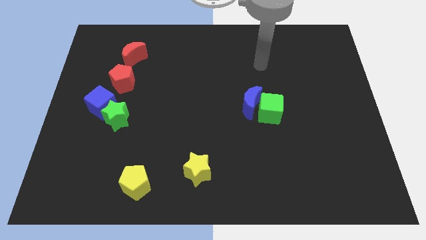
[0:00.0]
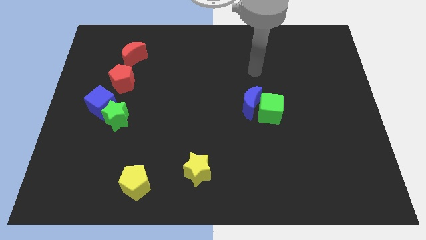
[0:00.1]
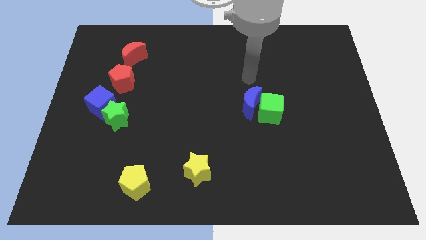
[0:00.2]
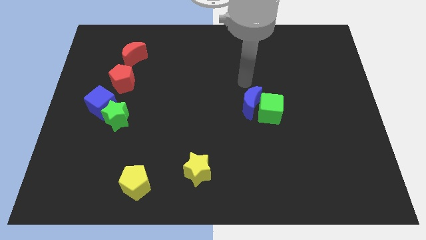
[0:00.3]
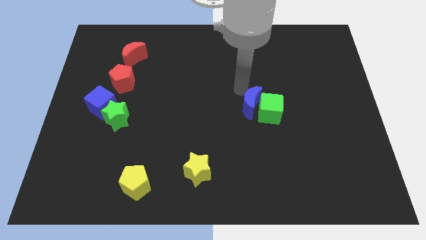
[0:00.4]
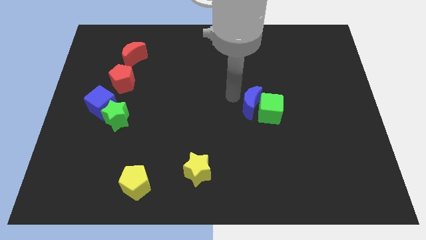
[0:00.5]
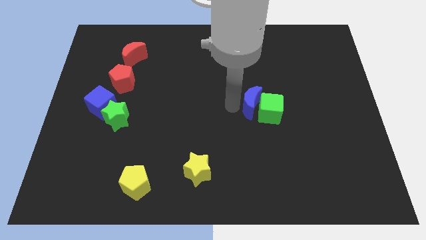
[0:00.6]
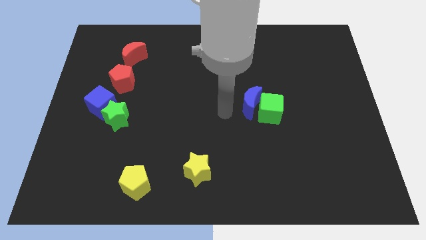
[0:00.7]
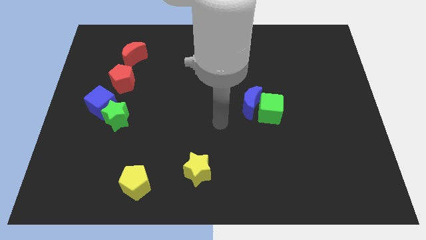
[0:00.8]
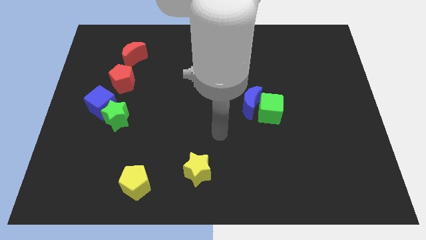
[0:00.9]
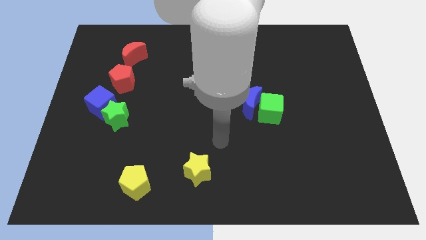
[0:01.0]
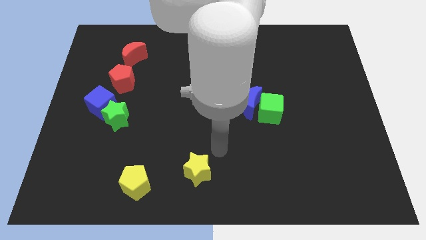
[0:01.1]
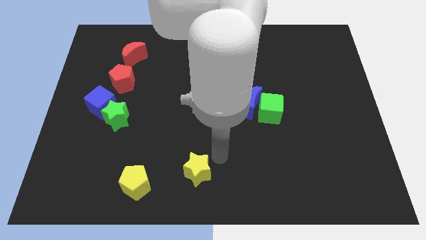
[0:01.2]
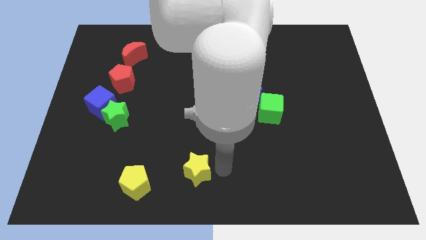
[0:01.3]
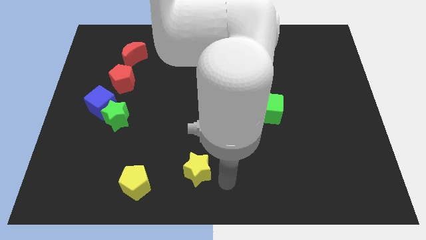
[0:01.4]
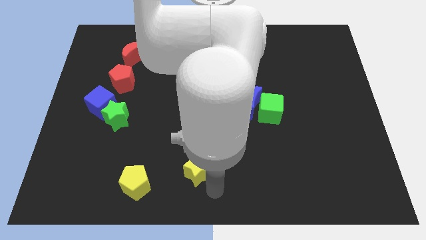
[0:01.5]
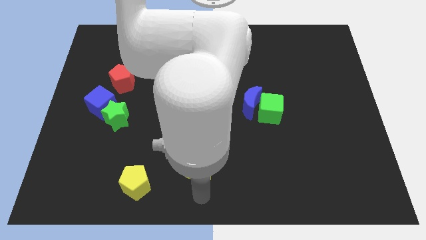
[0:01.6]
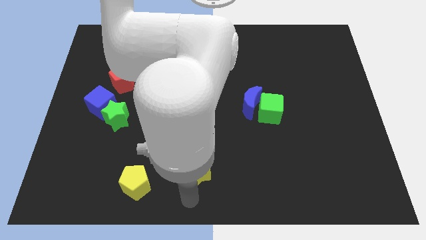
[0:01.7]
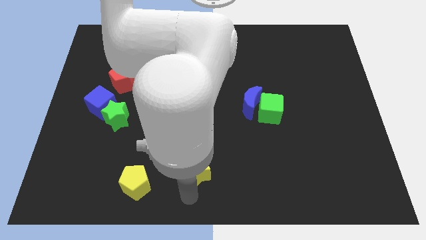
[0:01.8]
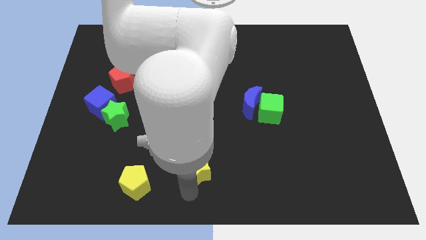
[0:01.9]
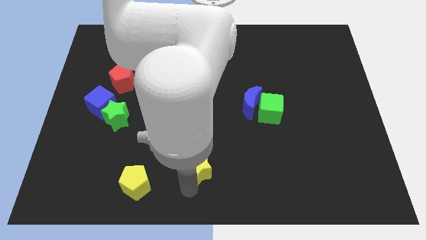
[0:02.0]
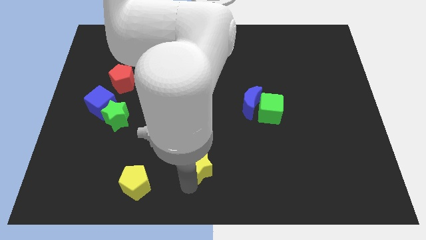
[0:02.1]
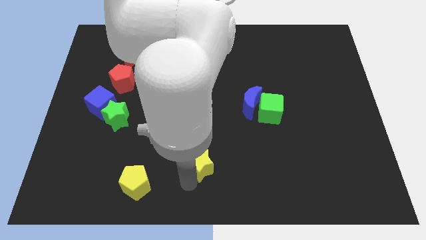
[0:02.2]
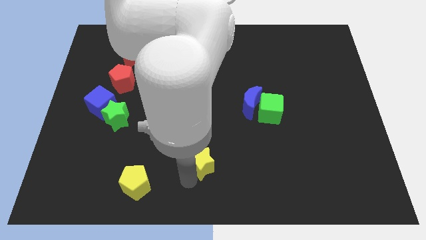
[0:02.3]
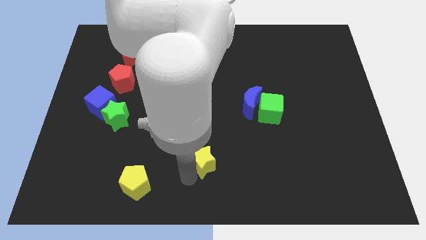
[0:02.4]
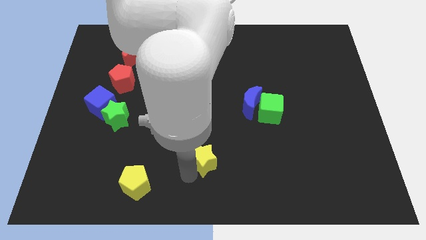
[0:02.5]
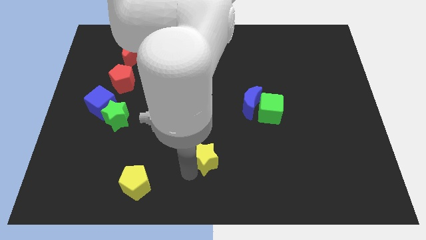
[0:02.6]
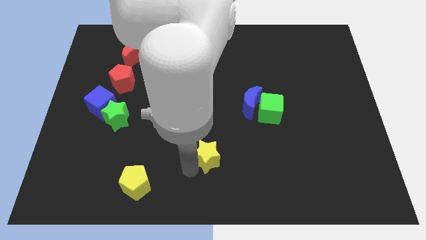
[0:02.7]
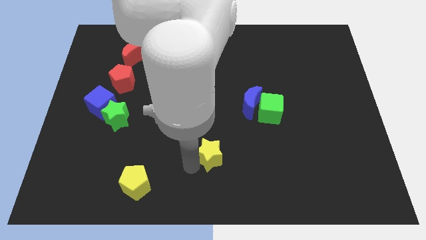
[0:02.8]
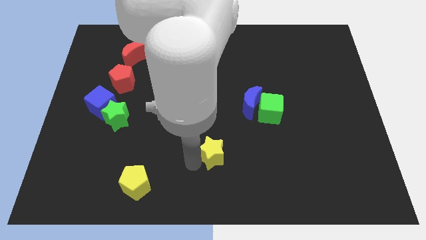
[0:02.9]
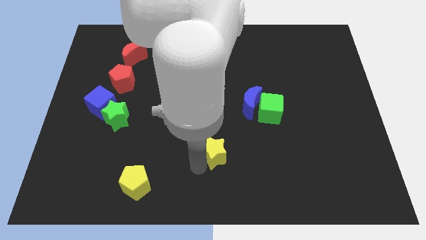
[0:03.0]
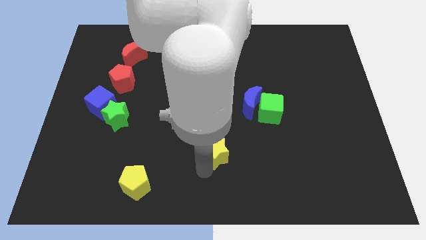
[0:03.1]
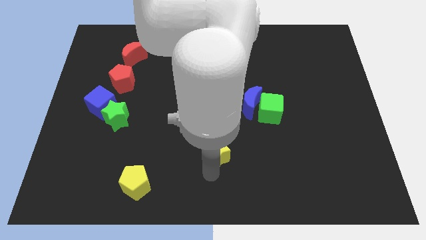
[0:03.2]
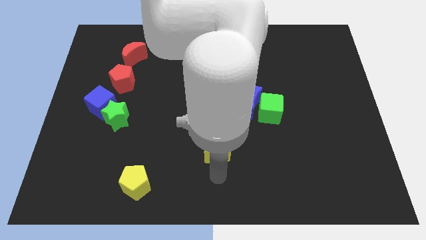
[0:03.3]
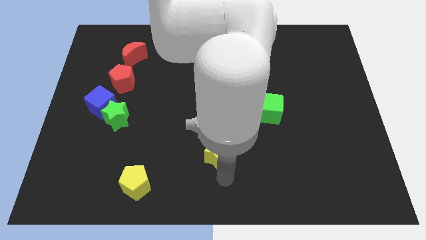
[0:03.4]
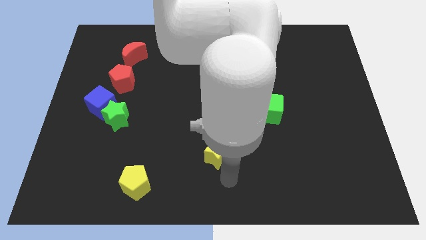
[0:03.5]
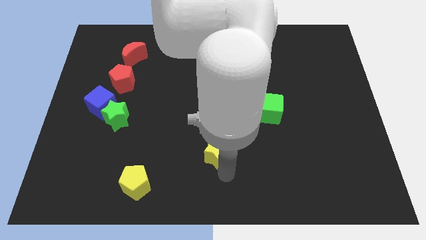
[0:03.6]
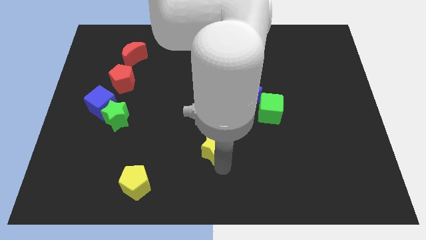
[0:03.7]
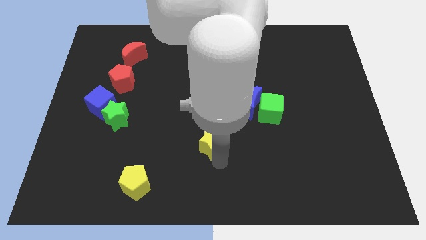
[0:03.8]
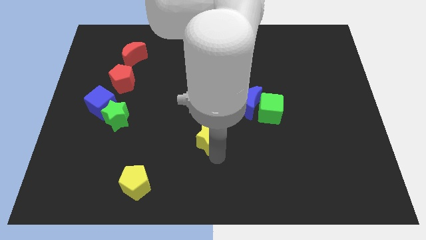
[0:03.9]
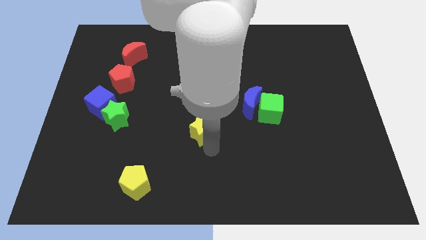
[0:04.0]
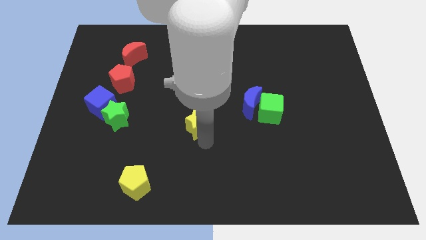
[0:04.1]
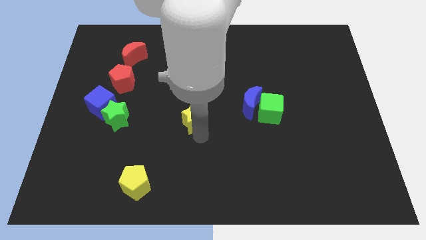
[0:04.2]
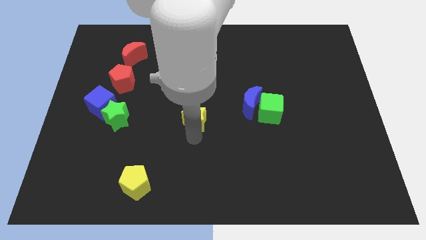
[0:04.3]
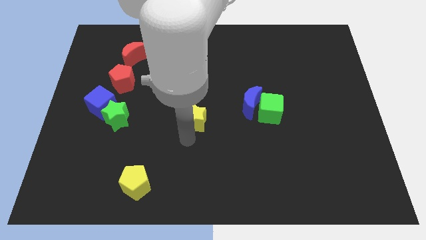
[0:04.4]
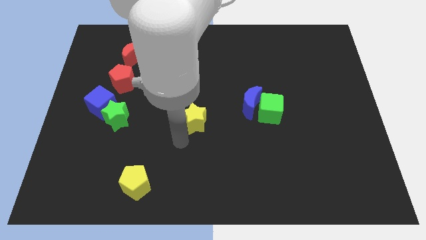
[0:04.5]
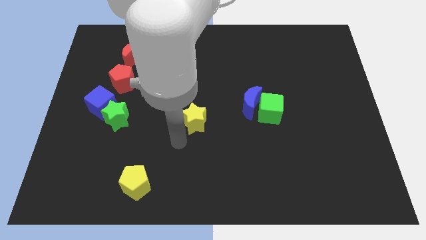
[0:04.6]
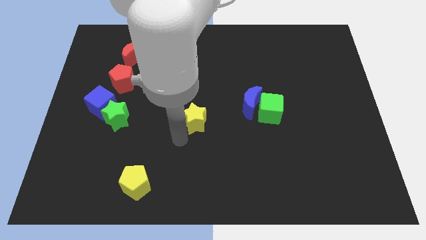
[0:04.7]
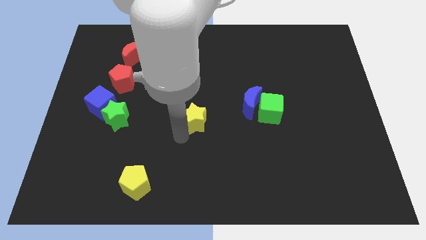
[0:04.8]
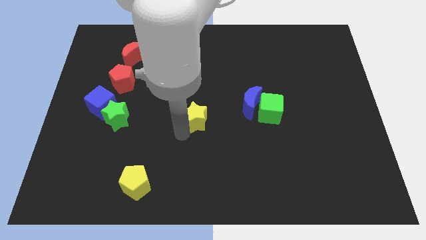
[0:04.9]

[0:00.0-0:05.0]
move the yellow star to the left of the blue moon

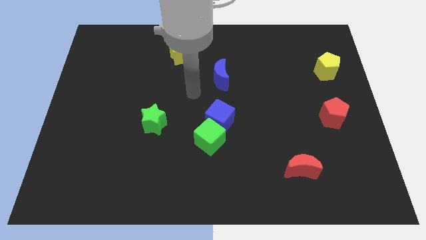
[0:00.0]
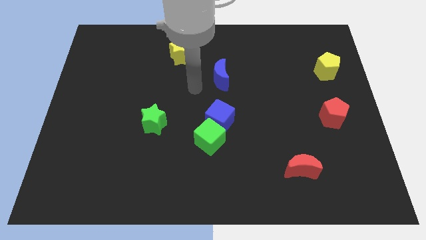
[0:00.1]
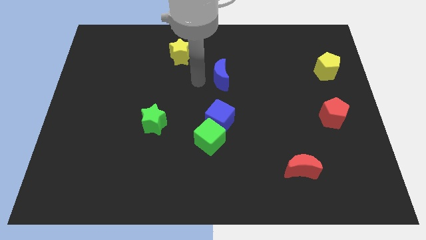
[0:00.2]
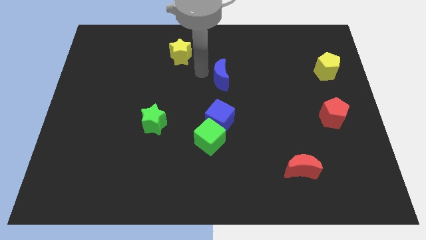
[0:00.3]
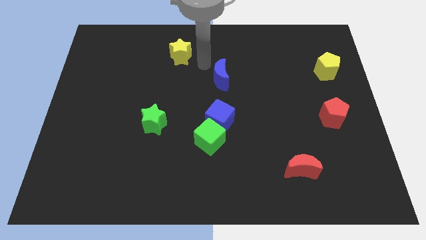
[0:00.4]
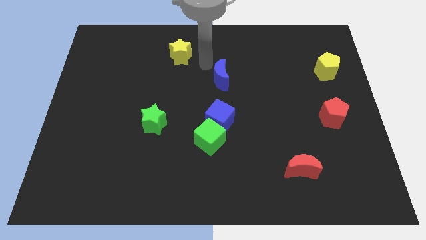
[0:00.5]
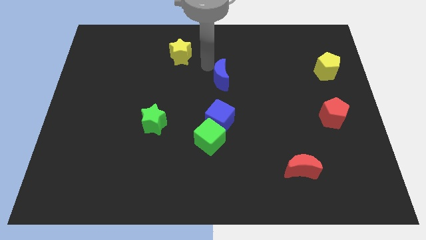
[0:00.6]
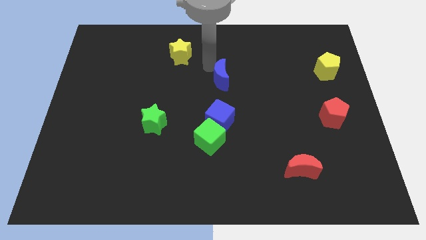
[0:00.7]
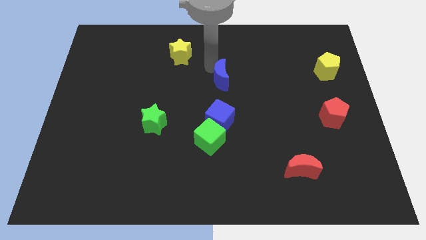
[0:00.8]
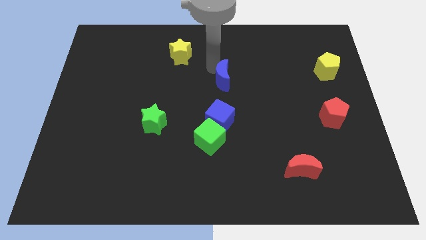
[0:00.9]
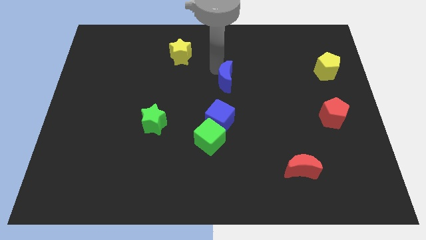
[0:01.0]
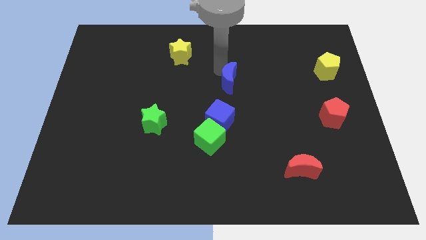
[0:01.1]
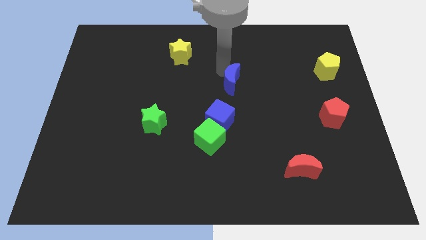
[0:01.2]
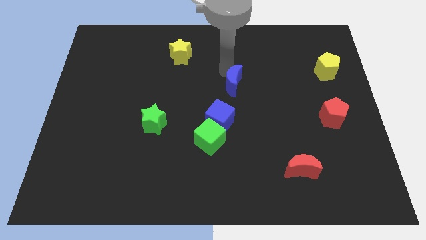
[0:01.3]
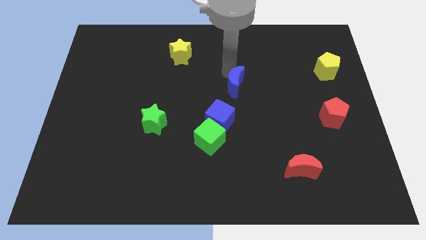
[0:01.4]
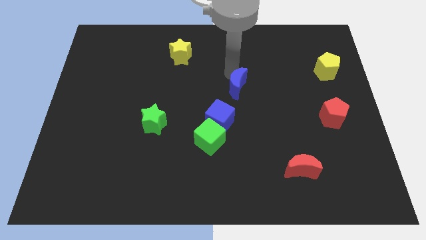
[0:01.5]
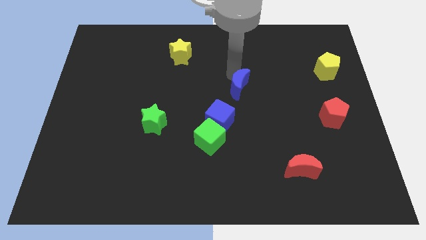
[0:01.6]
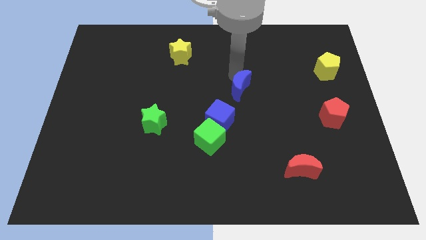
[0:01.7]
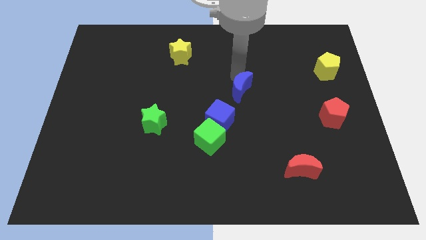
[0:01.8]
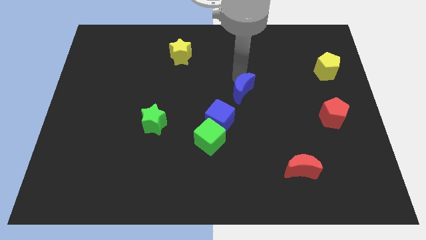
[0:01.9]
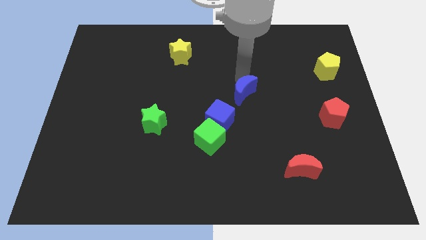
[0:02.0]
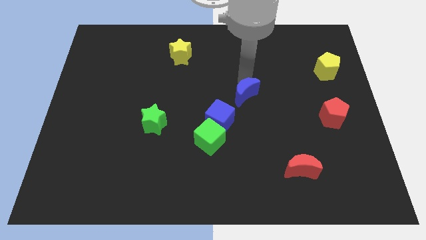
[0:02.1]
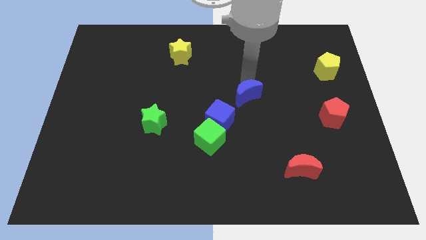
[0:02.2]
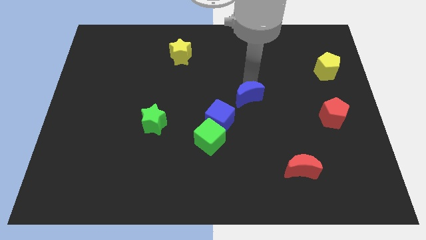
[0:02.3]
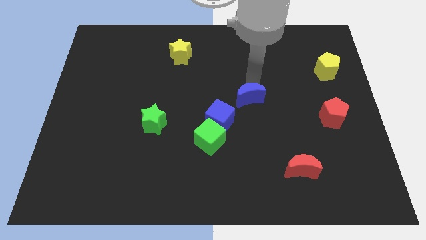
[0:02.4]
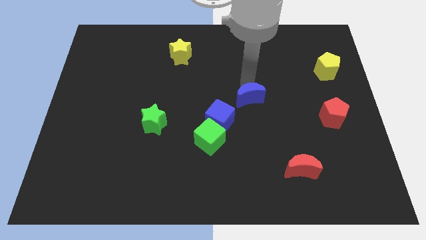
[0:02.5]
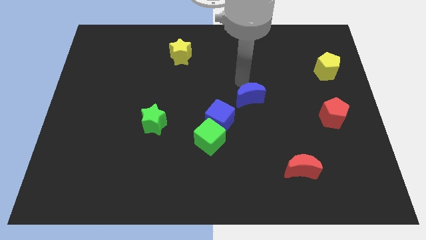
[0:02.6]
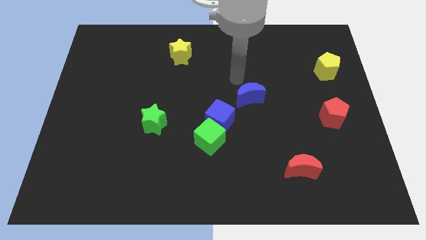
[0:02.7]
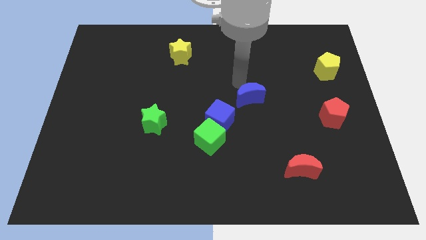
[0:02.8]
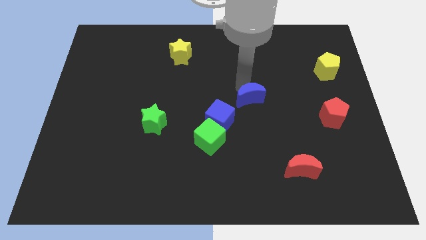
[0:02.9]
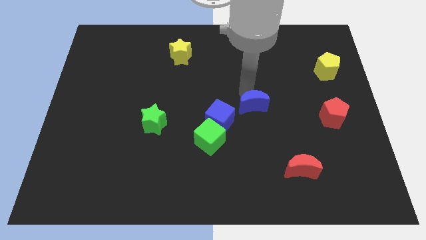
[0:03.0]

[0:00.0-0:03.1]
push the blue moon just right of the blue cube

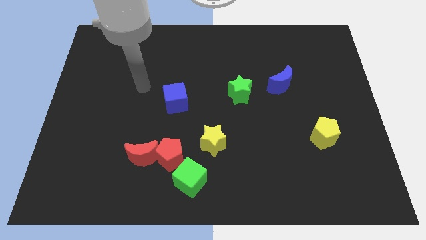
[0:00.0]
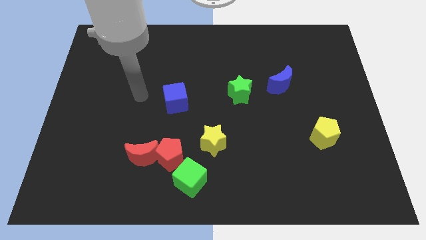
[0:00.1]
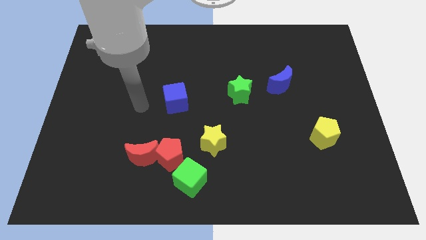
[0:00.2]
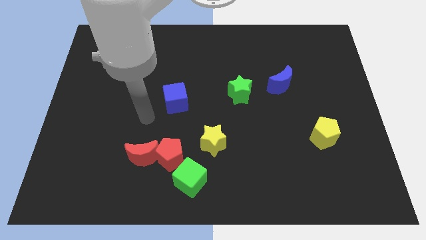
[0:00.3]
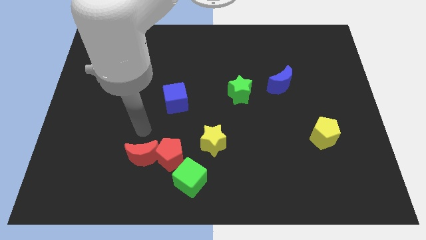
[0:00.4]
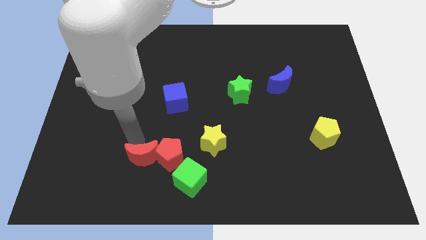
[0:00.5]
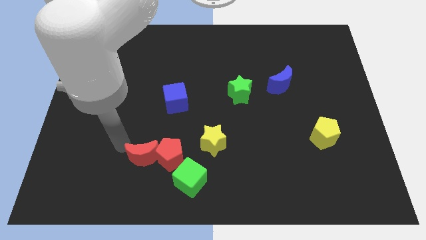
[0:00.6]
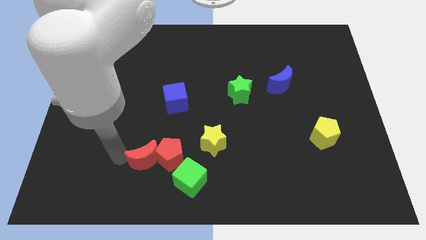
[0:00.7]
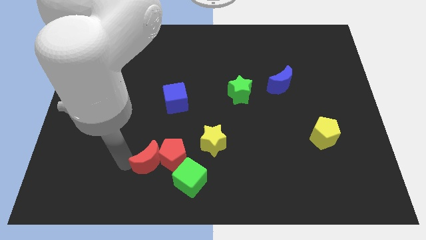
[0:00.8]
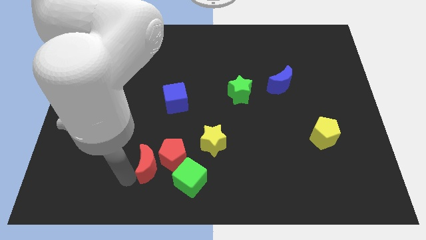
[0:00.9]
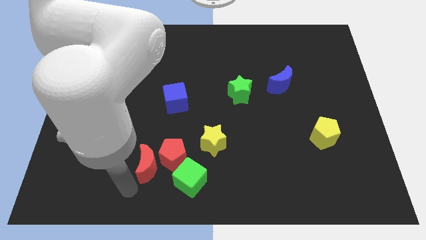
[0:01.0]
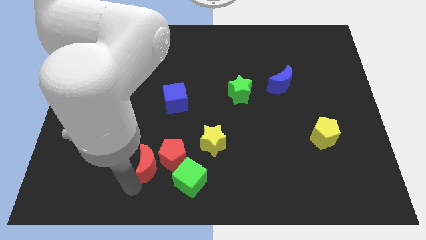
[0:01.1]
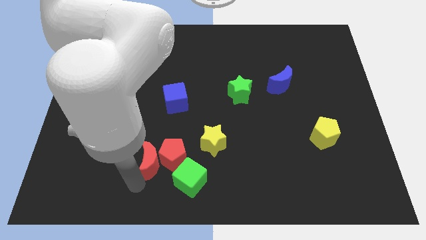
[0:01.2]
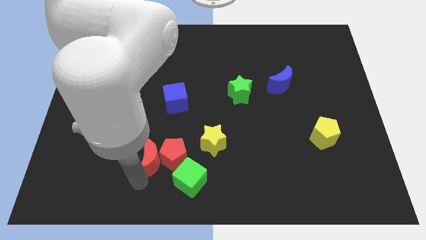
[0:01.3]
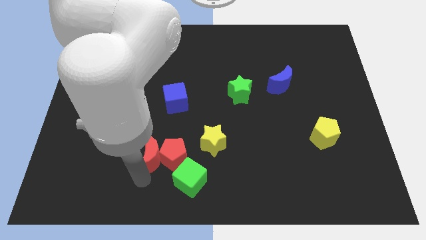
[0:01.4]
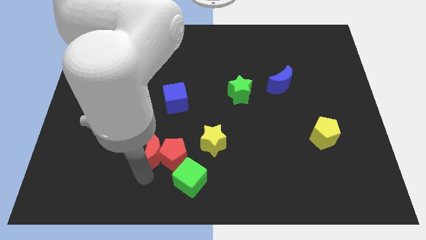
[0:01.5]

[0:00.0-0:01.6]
put the red moon below the blue cube
